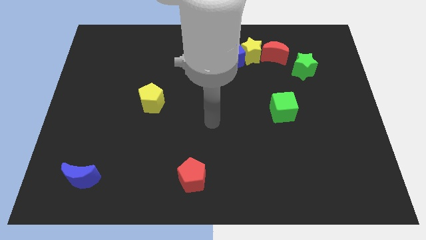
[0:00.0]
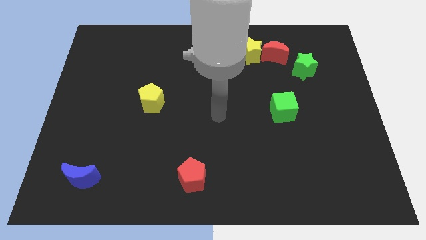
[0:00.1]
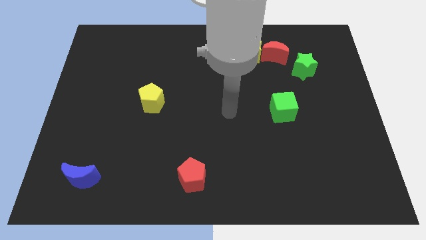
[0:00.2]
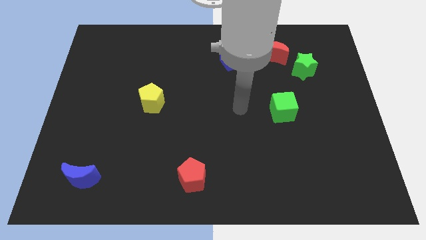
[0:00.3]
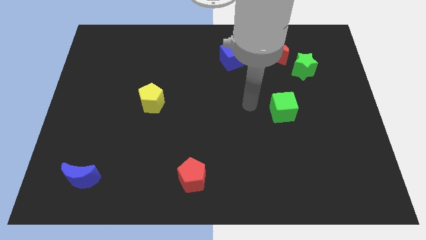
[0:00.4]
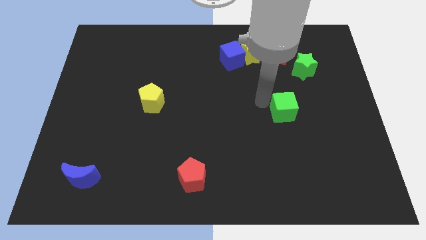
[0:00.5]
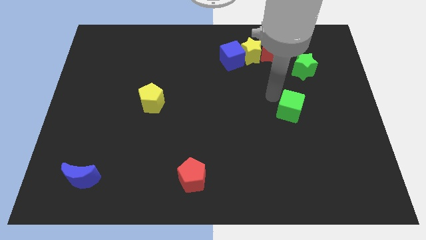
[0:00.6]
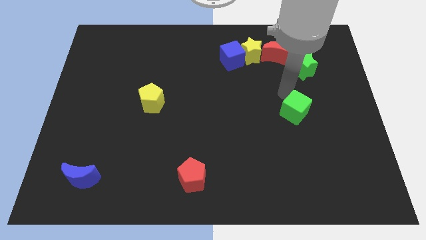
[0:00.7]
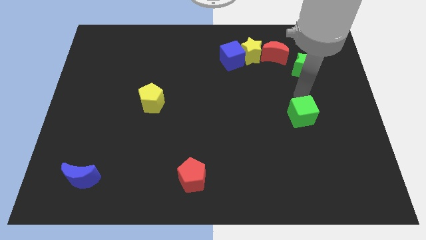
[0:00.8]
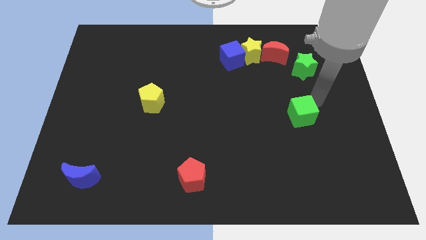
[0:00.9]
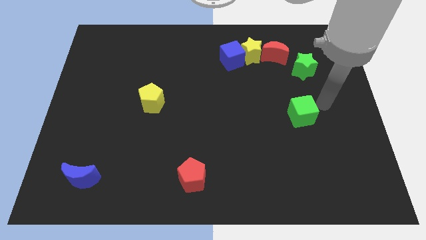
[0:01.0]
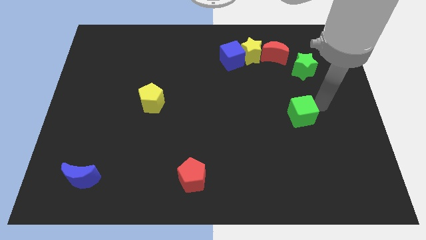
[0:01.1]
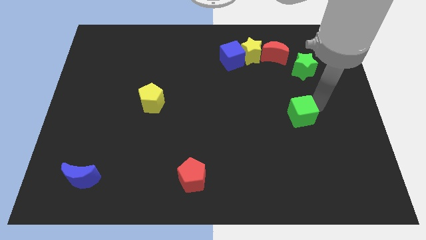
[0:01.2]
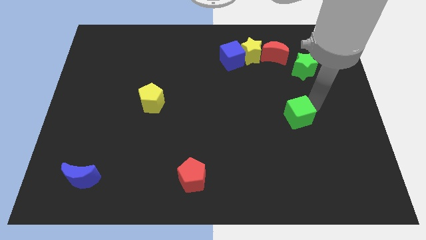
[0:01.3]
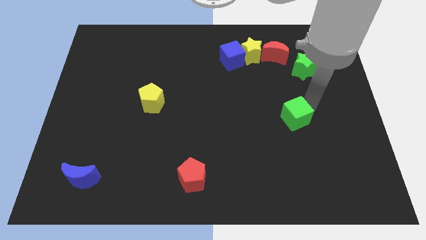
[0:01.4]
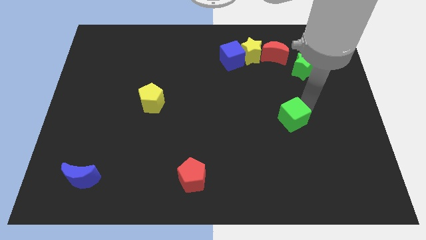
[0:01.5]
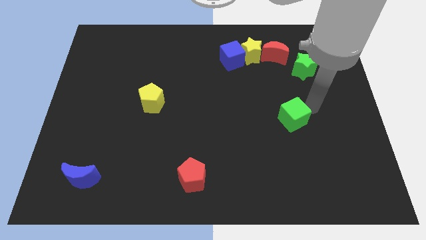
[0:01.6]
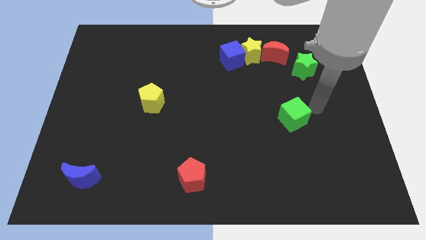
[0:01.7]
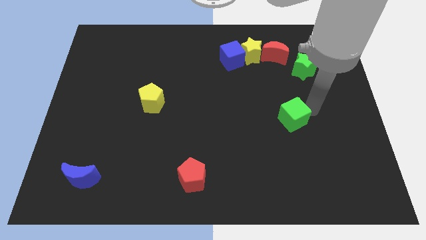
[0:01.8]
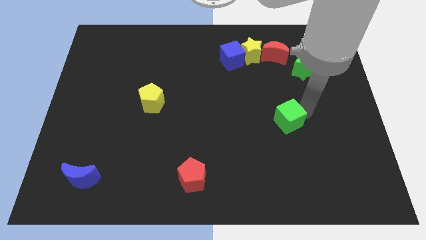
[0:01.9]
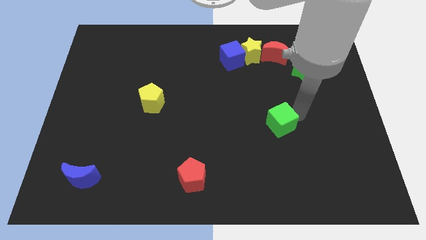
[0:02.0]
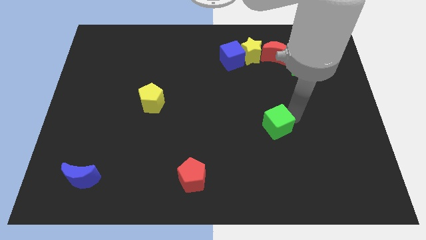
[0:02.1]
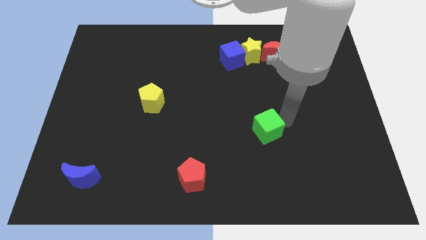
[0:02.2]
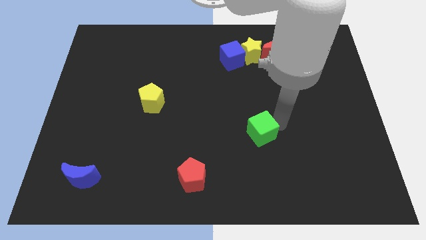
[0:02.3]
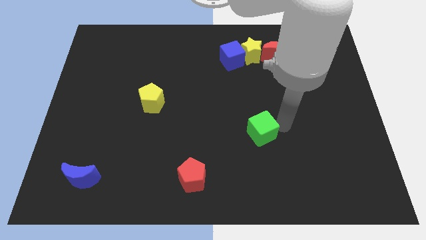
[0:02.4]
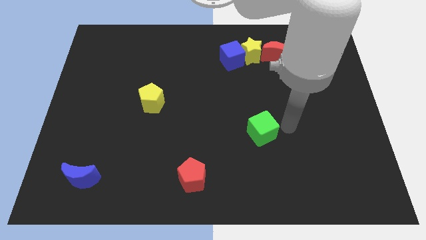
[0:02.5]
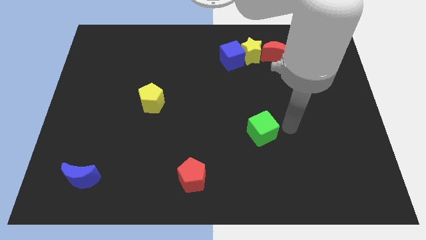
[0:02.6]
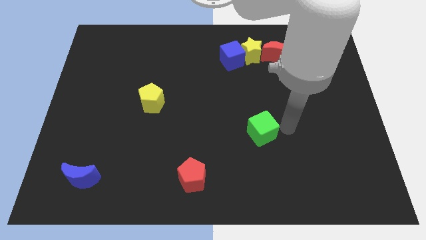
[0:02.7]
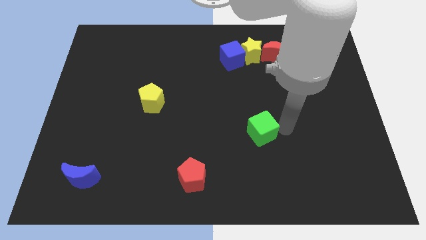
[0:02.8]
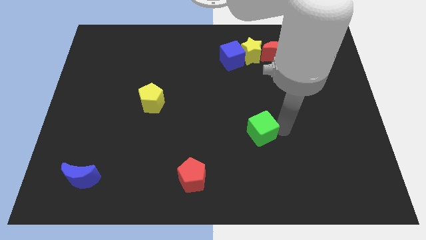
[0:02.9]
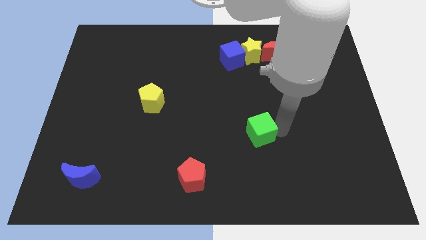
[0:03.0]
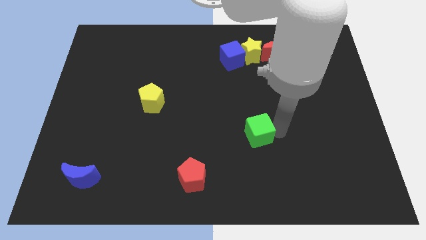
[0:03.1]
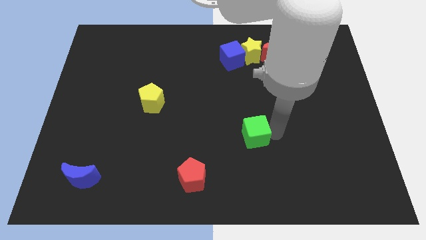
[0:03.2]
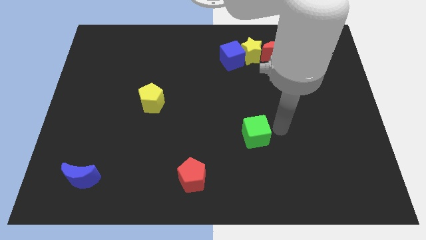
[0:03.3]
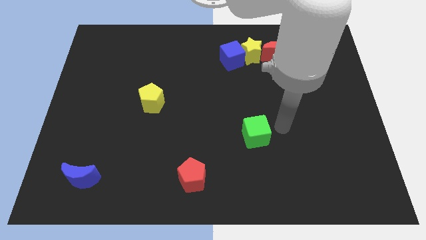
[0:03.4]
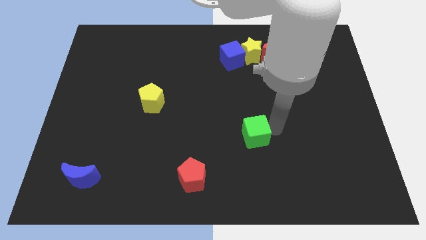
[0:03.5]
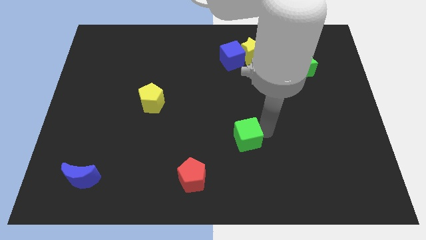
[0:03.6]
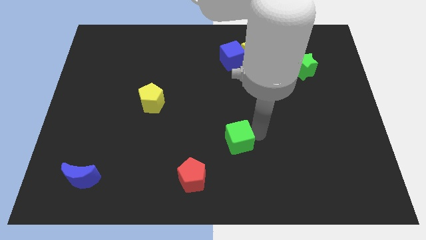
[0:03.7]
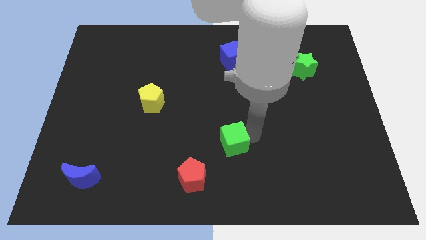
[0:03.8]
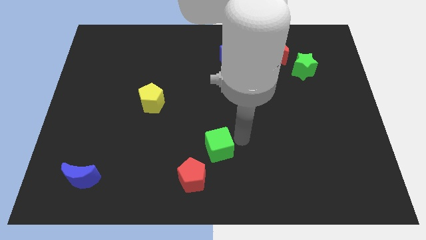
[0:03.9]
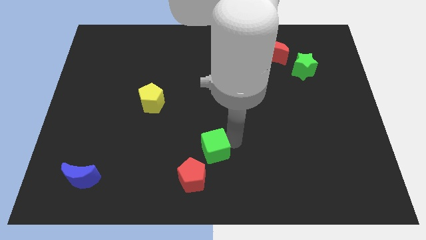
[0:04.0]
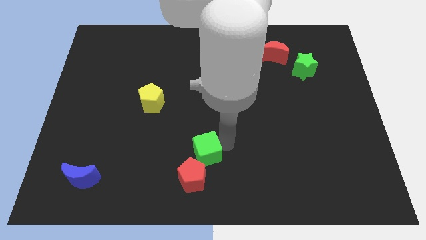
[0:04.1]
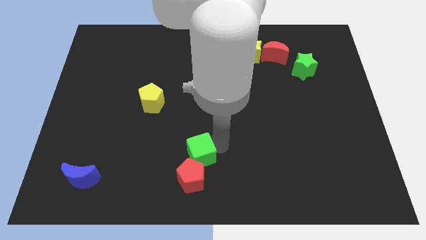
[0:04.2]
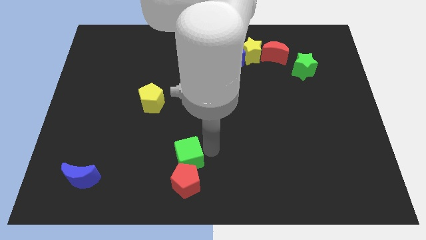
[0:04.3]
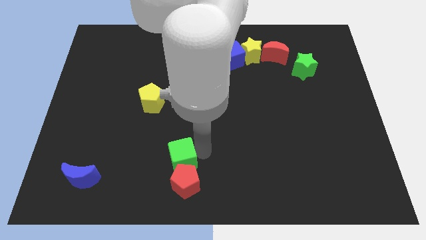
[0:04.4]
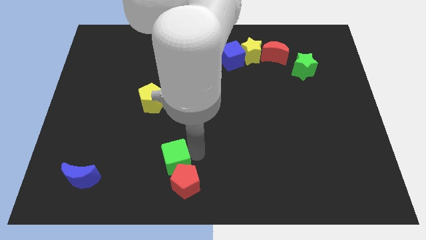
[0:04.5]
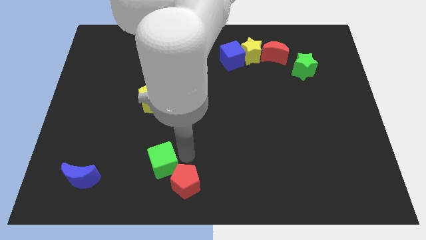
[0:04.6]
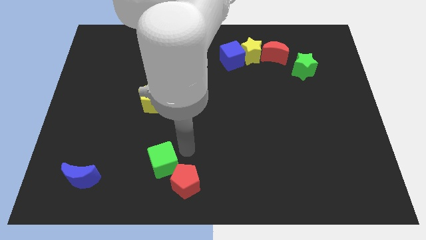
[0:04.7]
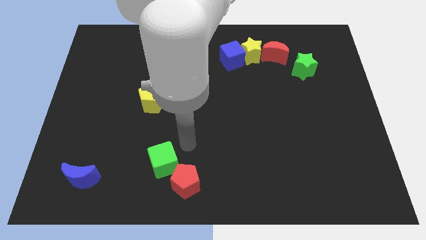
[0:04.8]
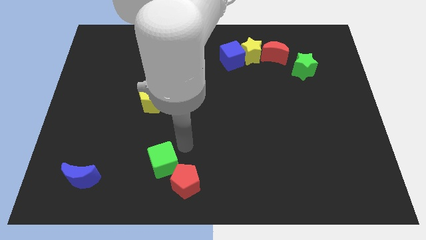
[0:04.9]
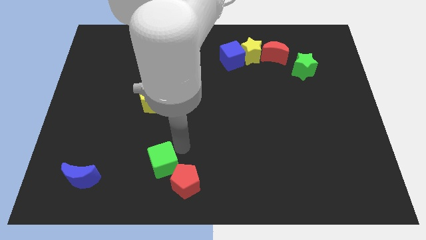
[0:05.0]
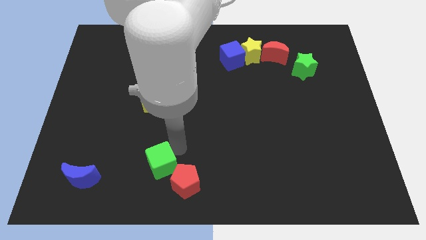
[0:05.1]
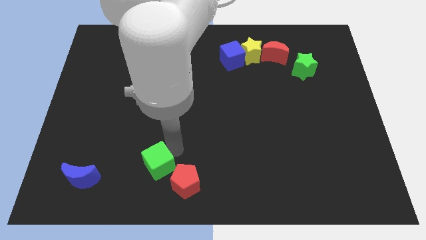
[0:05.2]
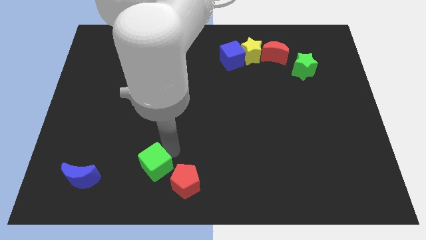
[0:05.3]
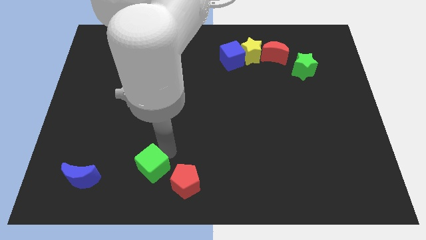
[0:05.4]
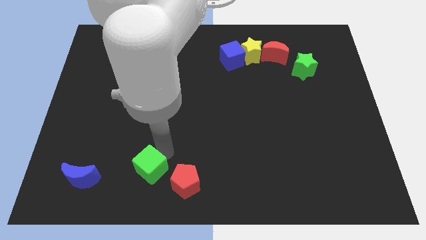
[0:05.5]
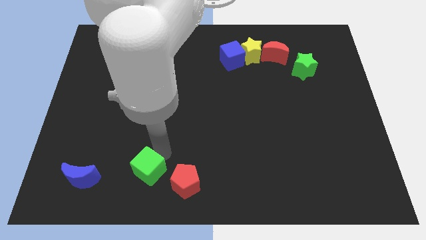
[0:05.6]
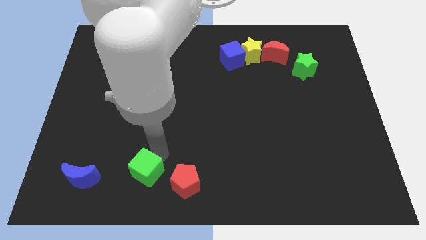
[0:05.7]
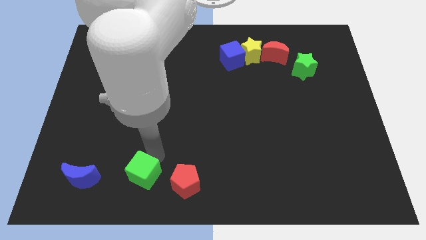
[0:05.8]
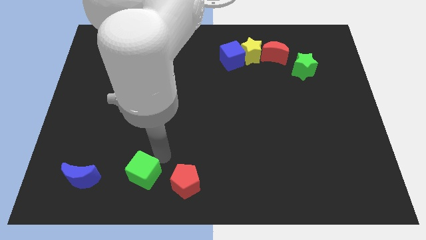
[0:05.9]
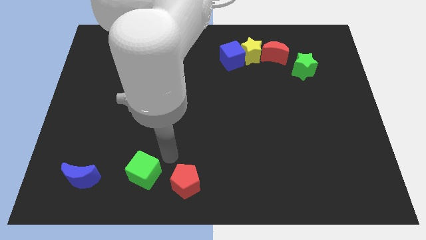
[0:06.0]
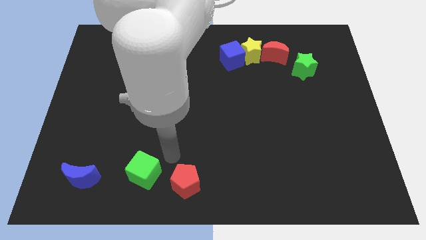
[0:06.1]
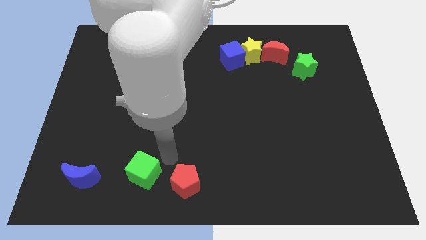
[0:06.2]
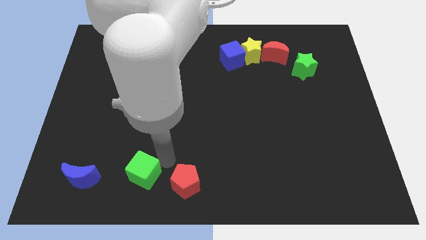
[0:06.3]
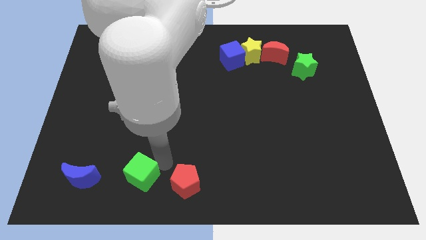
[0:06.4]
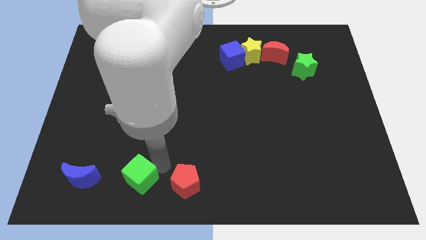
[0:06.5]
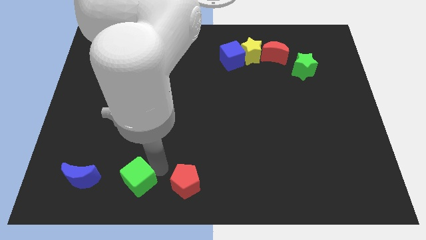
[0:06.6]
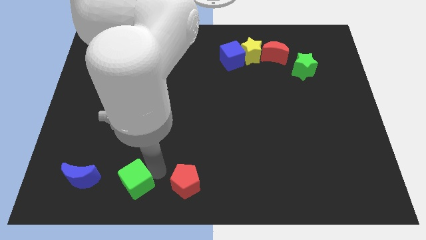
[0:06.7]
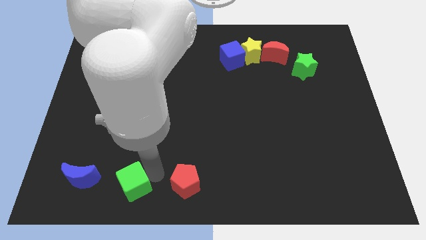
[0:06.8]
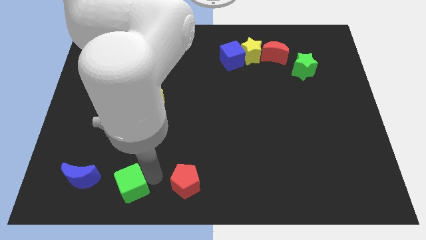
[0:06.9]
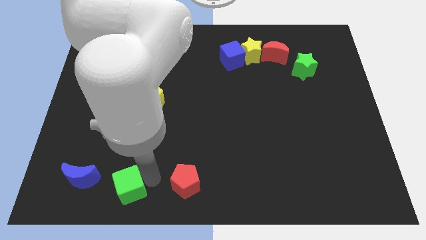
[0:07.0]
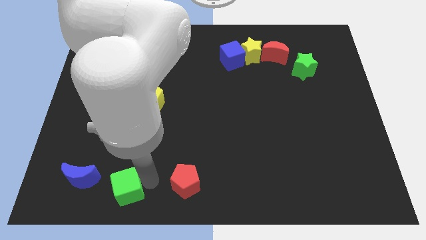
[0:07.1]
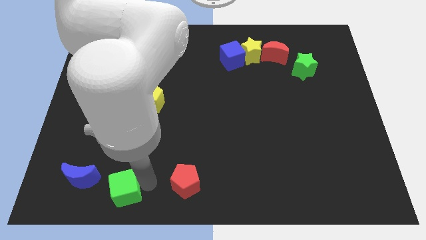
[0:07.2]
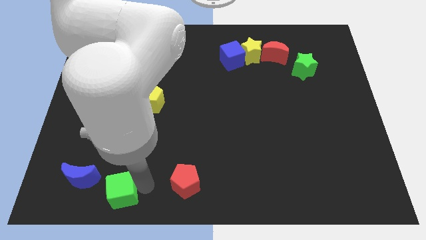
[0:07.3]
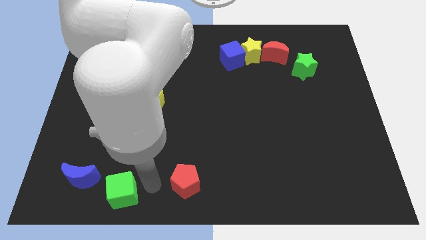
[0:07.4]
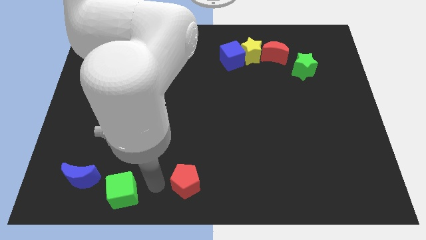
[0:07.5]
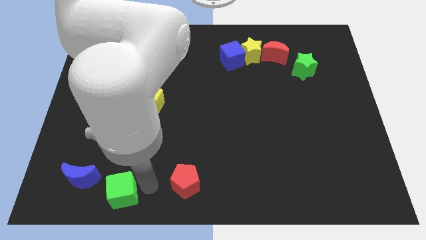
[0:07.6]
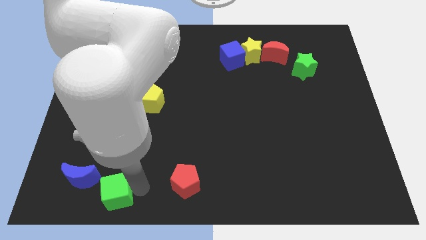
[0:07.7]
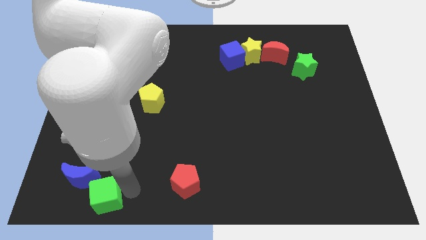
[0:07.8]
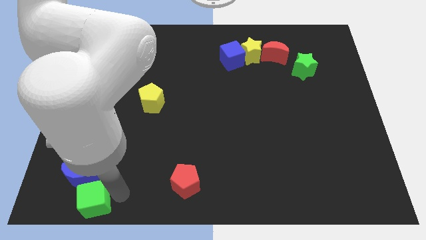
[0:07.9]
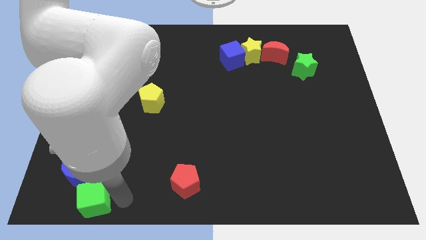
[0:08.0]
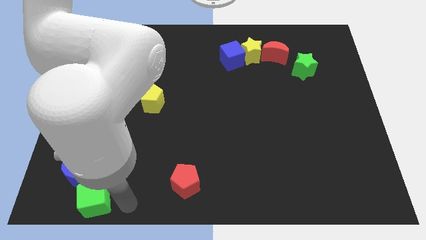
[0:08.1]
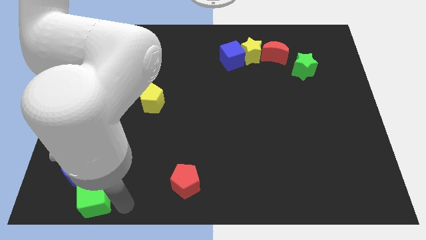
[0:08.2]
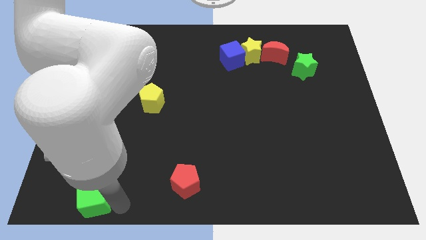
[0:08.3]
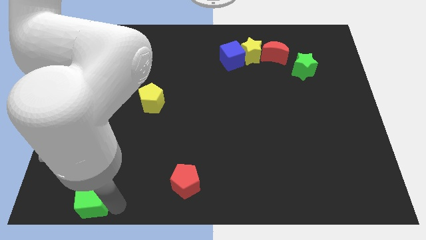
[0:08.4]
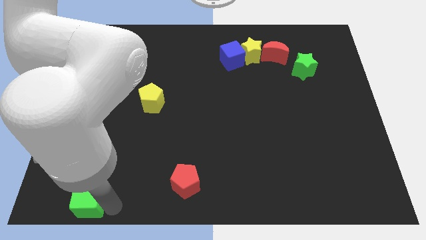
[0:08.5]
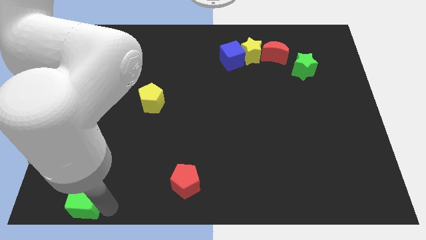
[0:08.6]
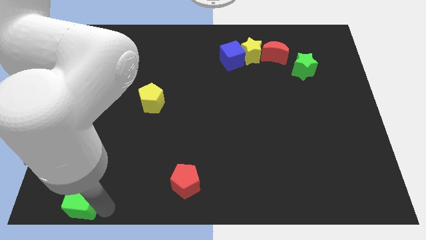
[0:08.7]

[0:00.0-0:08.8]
slide the green cube to the bottom left corner
